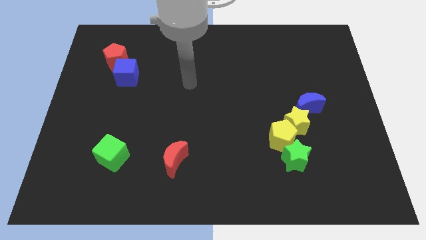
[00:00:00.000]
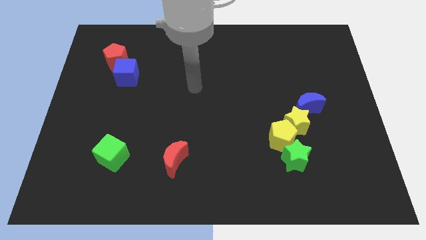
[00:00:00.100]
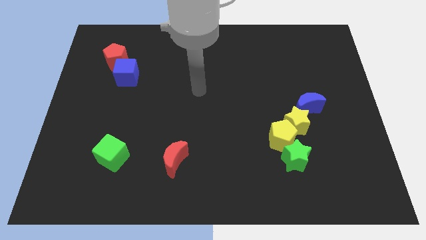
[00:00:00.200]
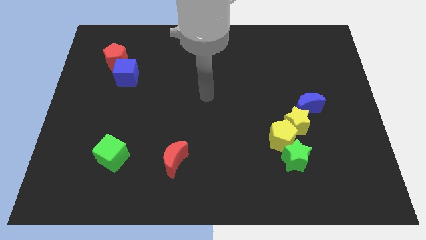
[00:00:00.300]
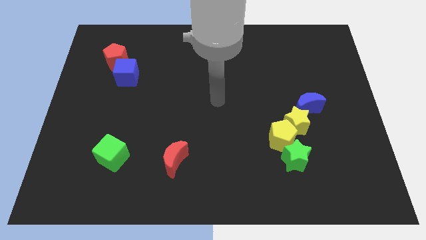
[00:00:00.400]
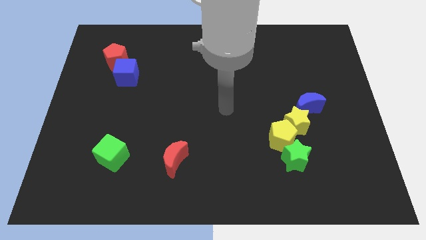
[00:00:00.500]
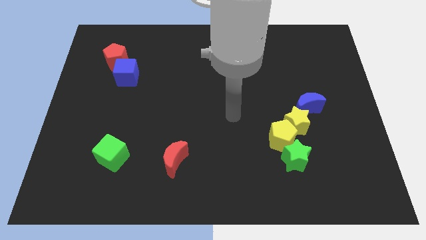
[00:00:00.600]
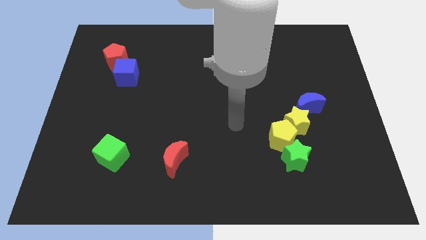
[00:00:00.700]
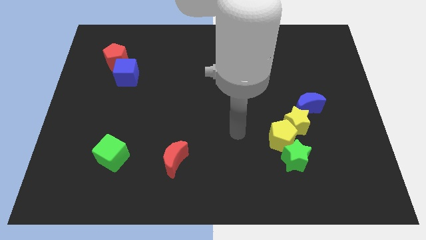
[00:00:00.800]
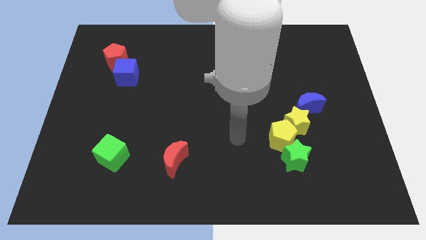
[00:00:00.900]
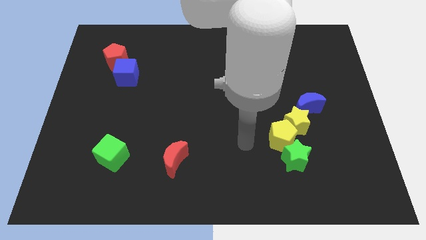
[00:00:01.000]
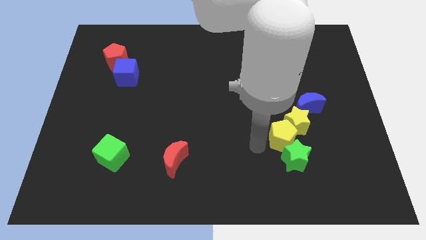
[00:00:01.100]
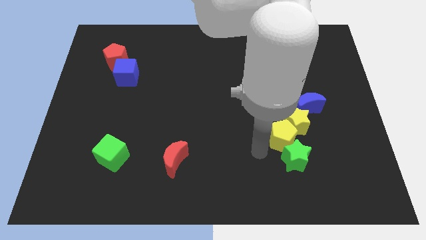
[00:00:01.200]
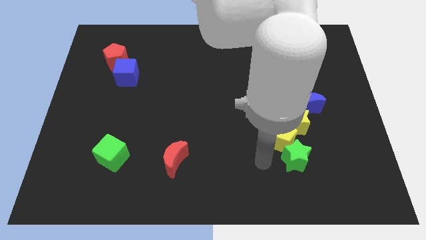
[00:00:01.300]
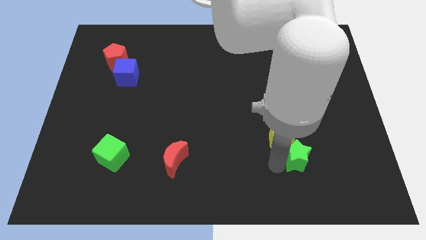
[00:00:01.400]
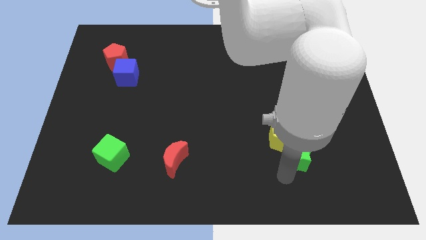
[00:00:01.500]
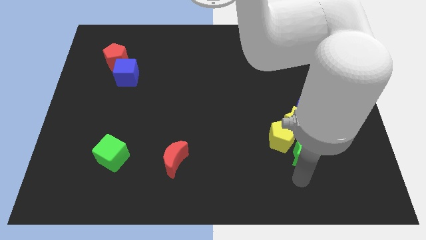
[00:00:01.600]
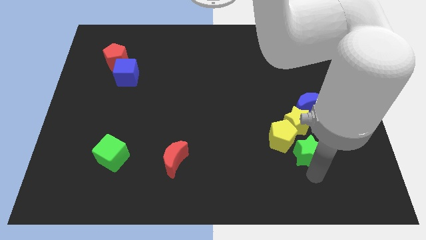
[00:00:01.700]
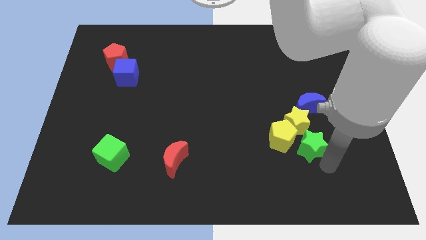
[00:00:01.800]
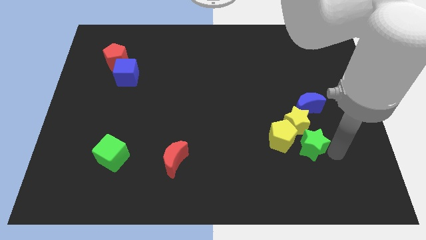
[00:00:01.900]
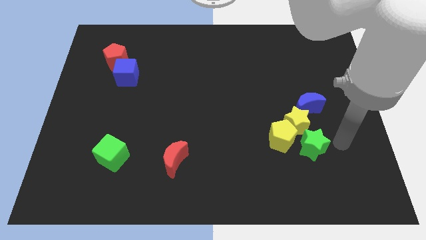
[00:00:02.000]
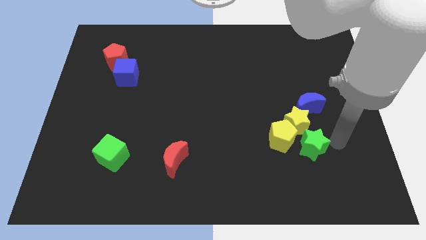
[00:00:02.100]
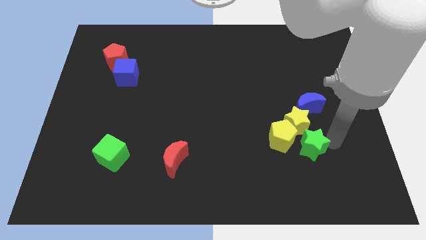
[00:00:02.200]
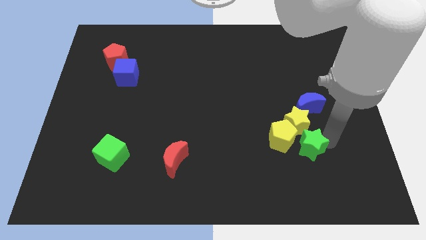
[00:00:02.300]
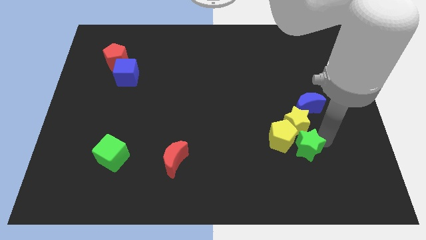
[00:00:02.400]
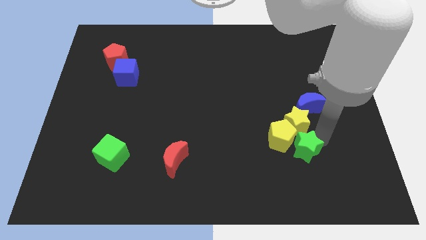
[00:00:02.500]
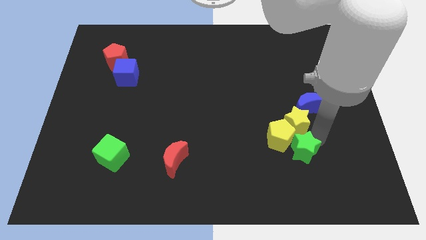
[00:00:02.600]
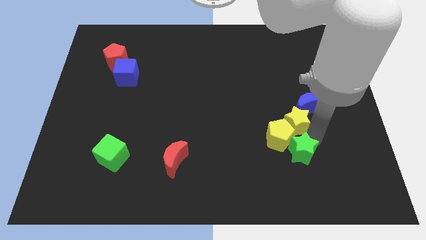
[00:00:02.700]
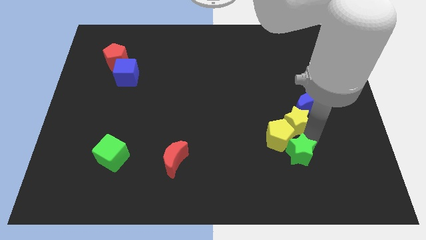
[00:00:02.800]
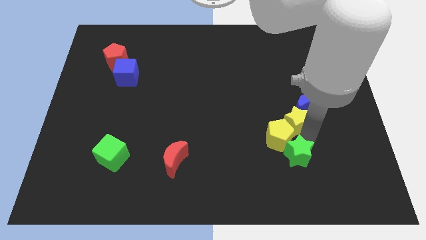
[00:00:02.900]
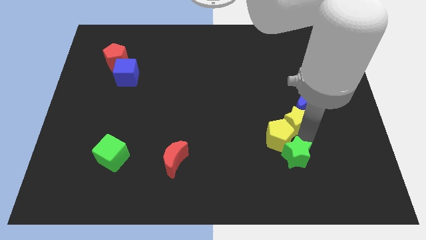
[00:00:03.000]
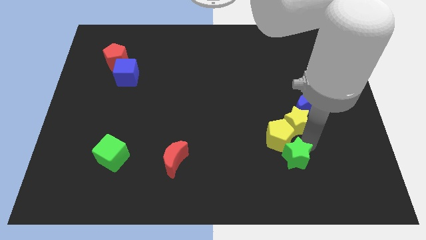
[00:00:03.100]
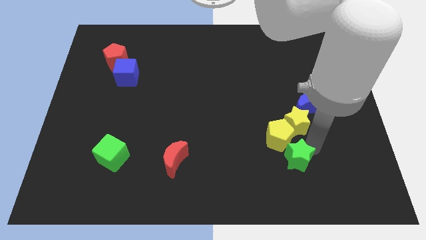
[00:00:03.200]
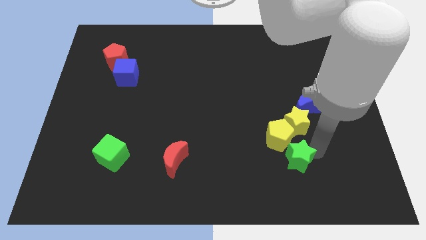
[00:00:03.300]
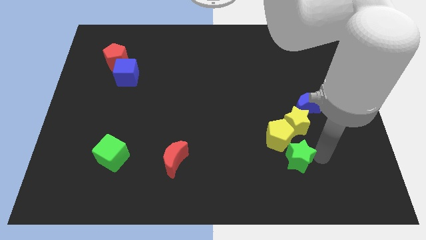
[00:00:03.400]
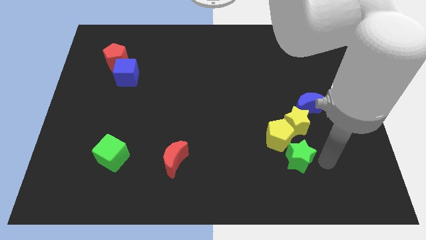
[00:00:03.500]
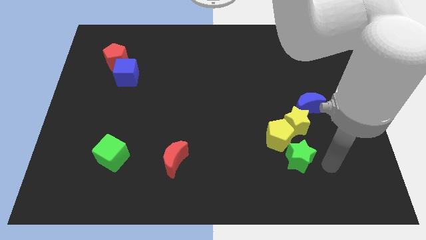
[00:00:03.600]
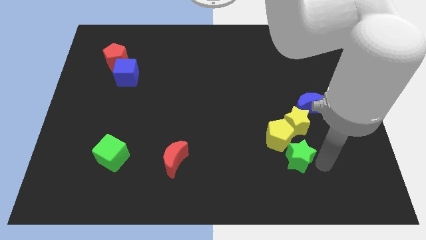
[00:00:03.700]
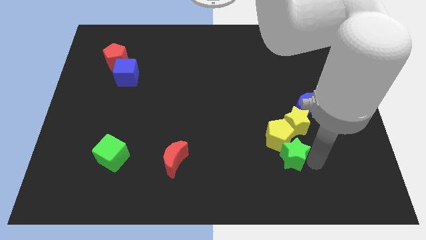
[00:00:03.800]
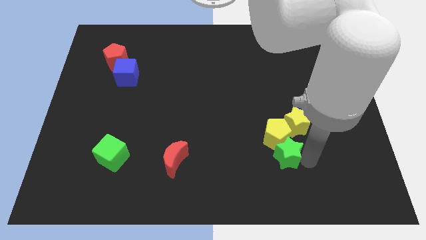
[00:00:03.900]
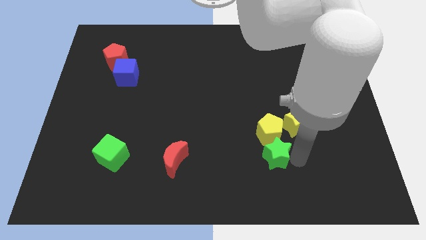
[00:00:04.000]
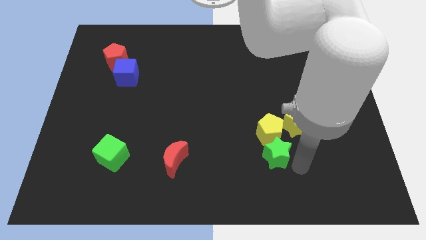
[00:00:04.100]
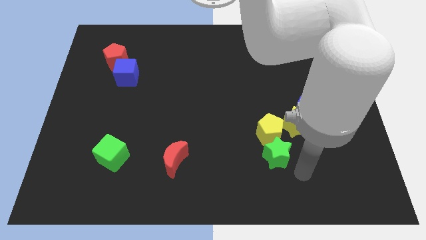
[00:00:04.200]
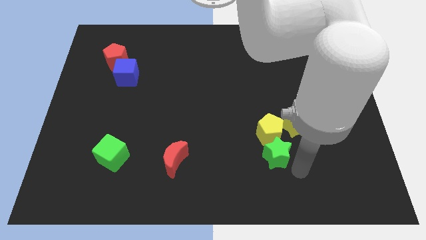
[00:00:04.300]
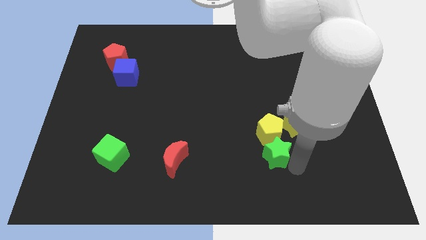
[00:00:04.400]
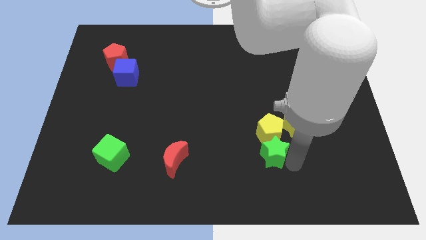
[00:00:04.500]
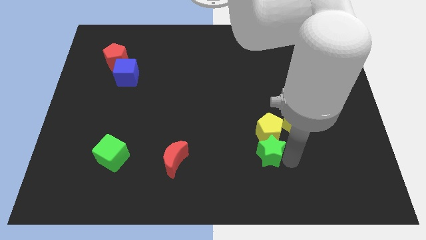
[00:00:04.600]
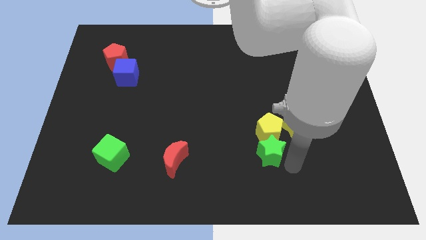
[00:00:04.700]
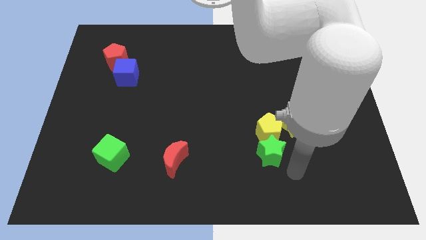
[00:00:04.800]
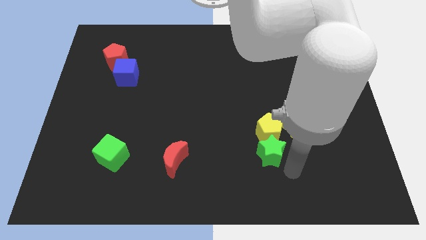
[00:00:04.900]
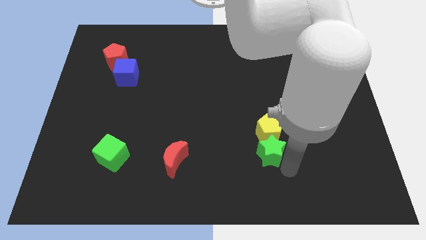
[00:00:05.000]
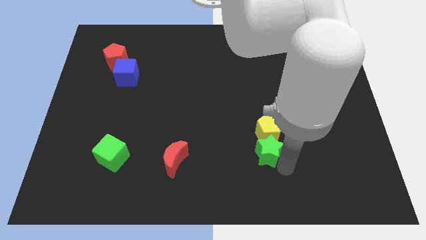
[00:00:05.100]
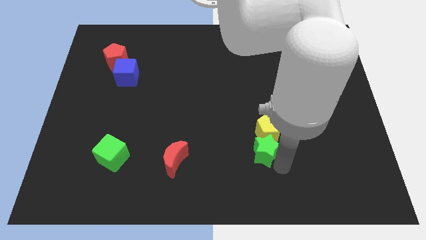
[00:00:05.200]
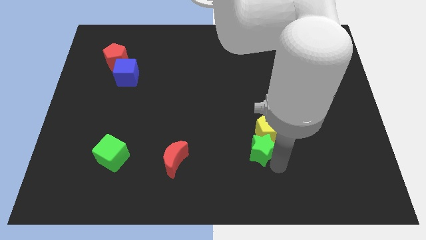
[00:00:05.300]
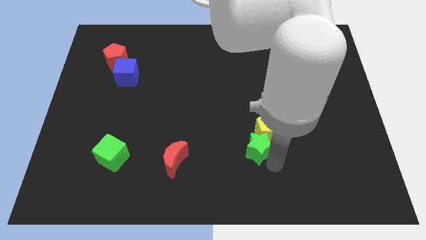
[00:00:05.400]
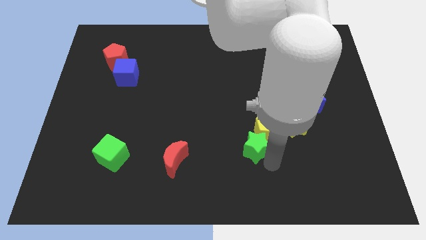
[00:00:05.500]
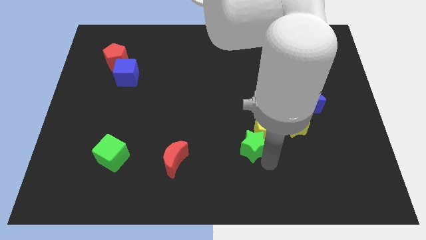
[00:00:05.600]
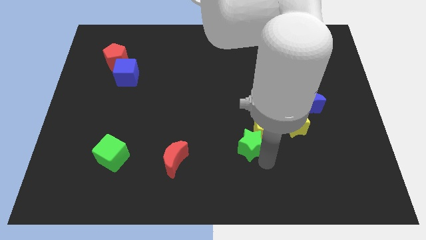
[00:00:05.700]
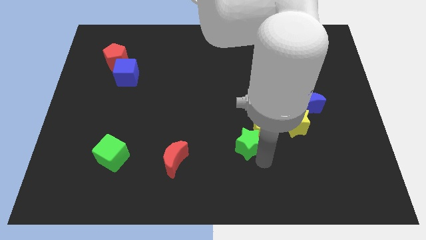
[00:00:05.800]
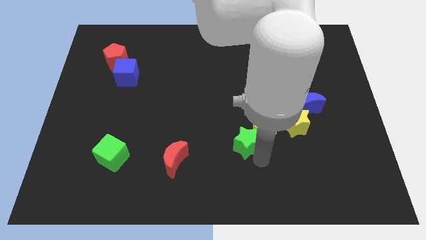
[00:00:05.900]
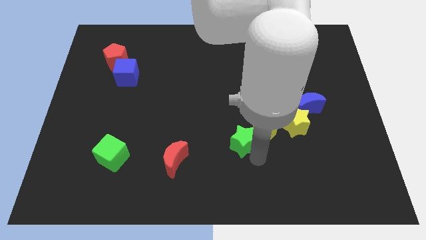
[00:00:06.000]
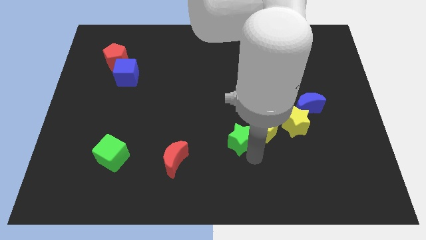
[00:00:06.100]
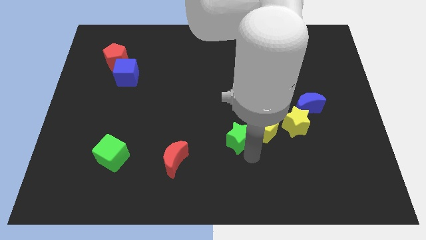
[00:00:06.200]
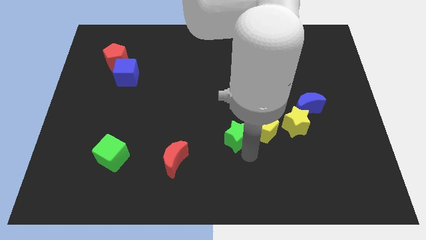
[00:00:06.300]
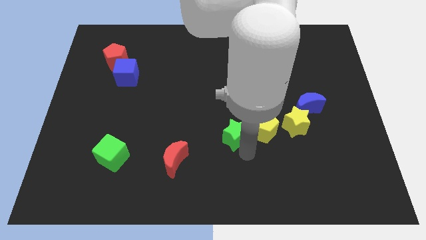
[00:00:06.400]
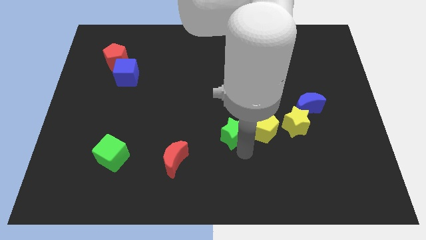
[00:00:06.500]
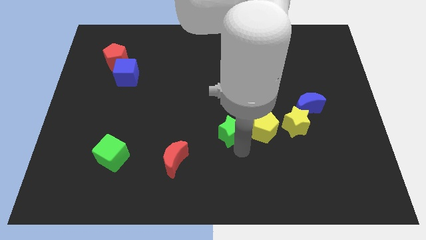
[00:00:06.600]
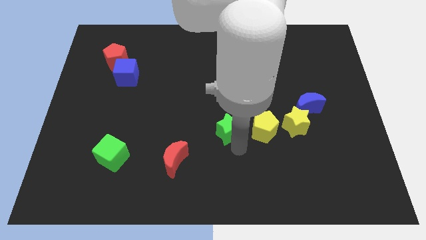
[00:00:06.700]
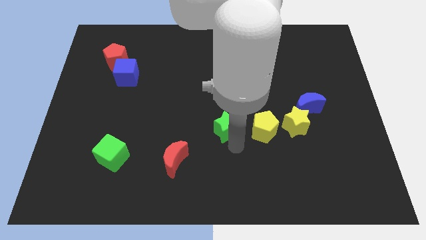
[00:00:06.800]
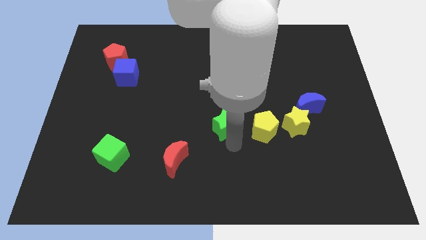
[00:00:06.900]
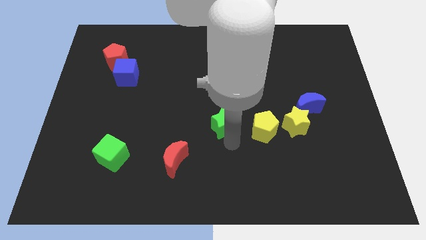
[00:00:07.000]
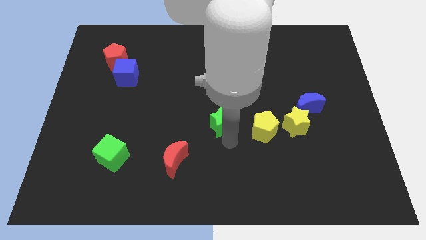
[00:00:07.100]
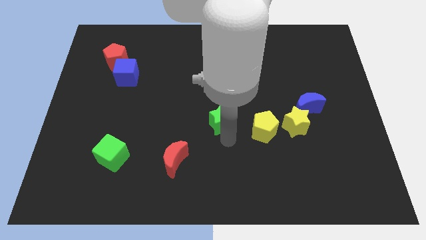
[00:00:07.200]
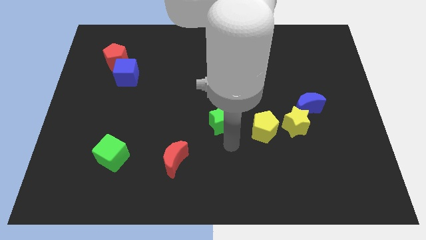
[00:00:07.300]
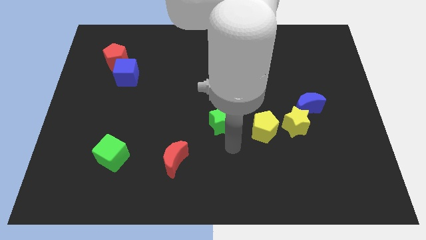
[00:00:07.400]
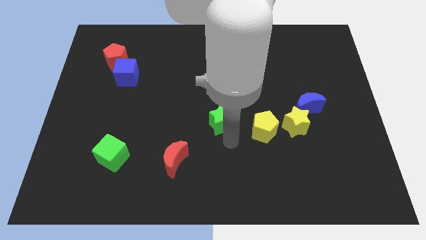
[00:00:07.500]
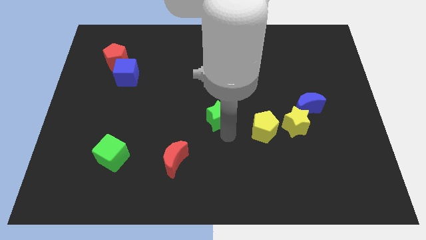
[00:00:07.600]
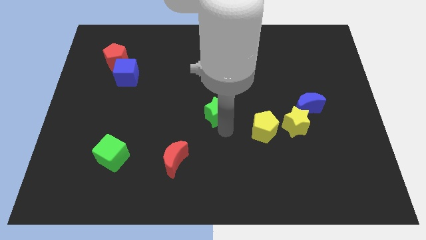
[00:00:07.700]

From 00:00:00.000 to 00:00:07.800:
push the green star diagonally up and left

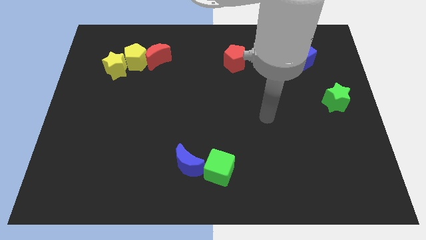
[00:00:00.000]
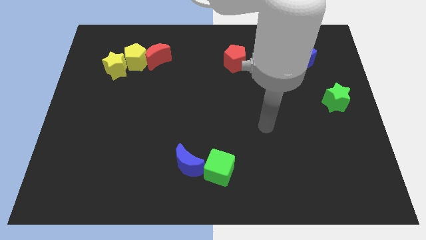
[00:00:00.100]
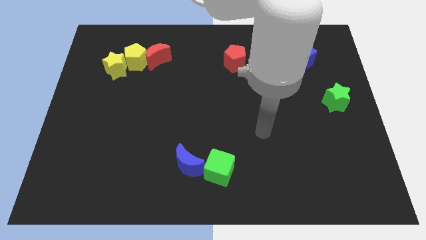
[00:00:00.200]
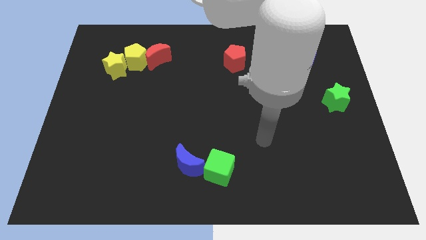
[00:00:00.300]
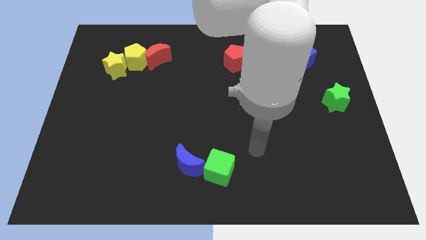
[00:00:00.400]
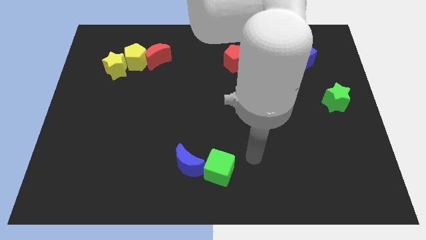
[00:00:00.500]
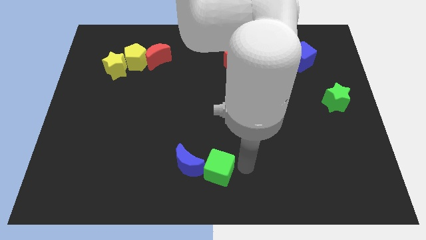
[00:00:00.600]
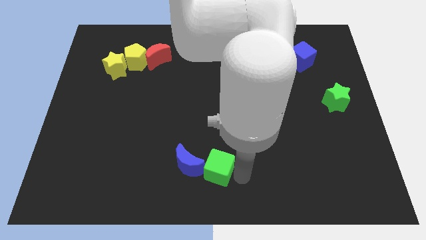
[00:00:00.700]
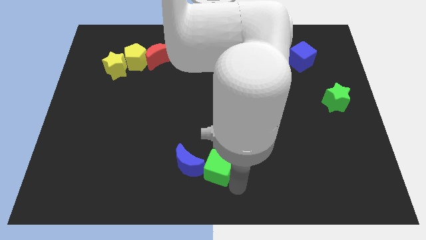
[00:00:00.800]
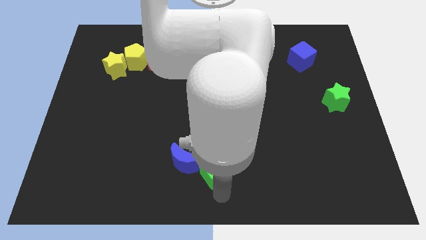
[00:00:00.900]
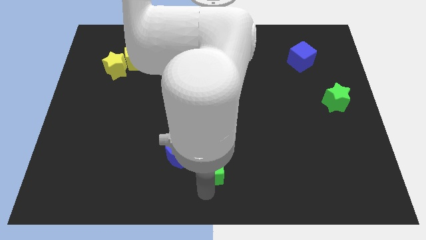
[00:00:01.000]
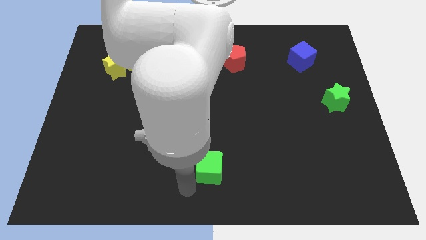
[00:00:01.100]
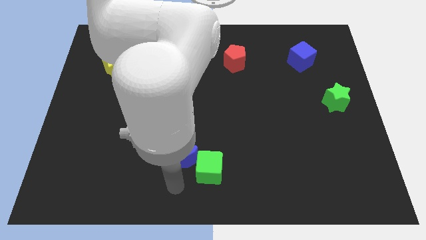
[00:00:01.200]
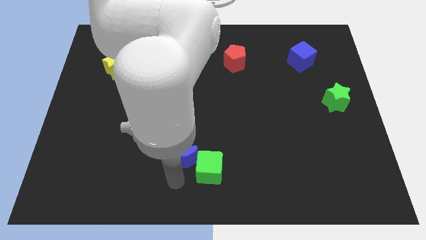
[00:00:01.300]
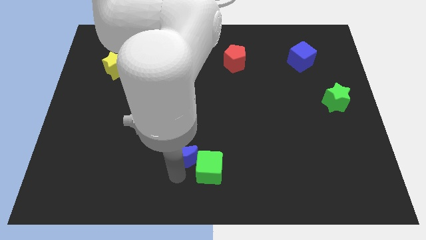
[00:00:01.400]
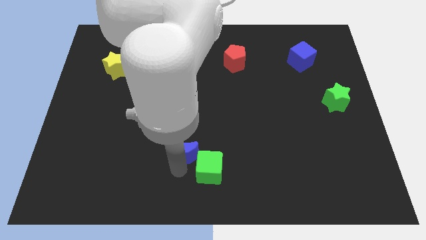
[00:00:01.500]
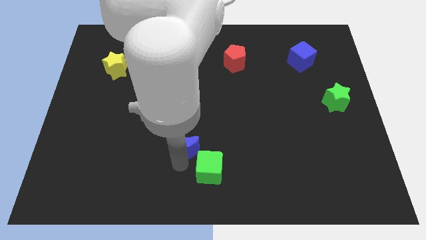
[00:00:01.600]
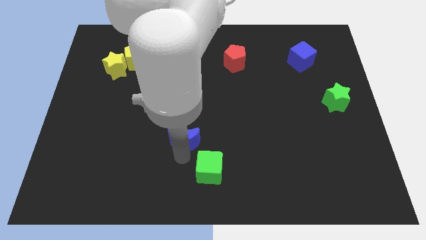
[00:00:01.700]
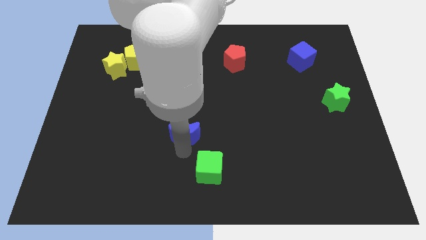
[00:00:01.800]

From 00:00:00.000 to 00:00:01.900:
move the blue moon a little upwards
